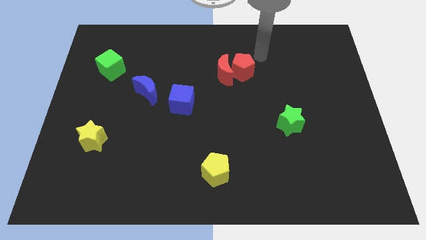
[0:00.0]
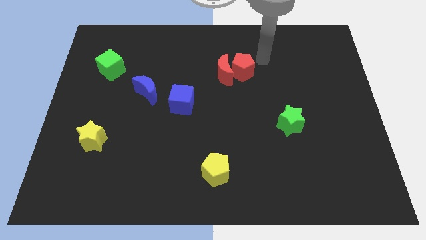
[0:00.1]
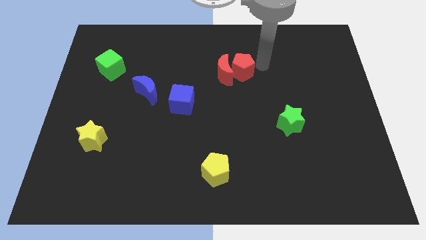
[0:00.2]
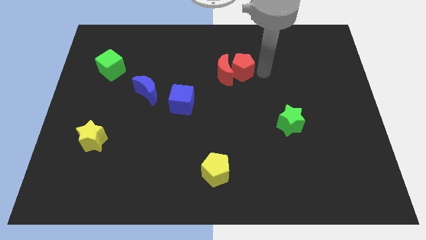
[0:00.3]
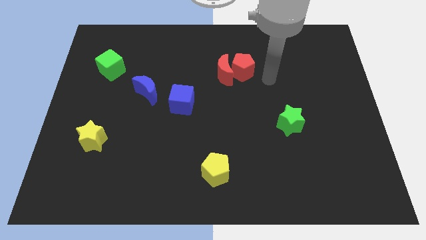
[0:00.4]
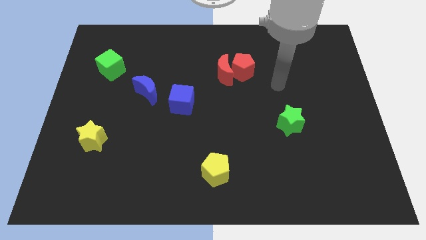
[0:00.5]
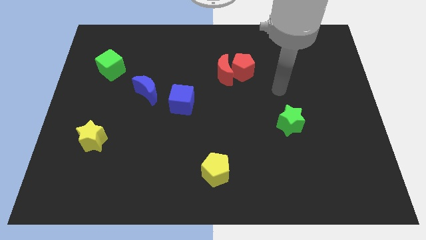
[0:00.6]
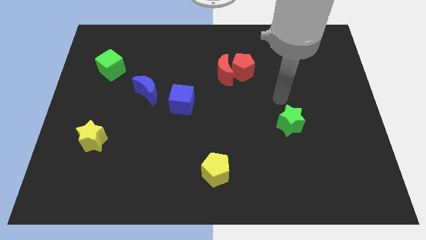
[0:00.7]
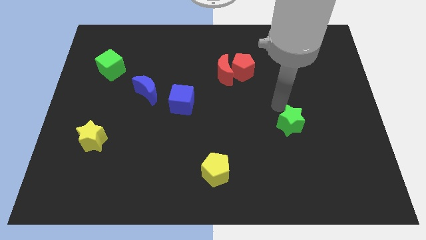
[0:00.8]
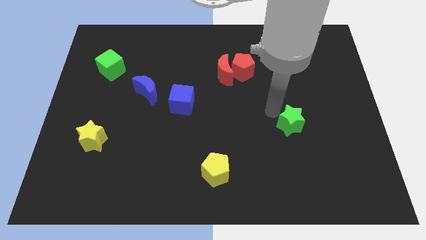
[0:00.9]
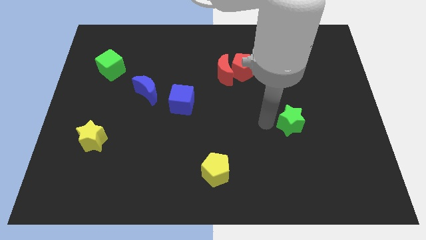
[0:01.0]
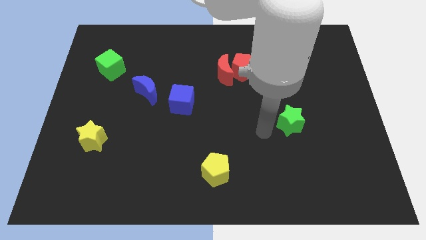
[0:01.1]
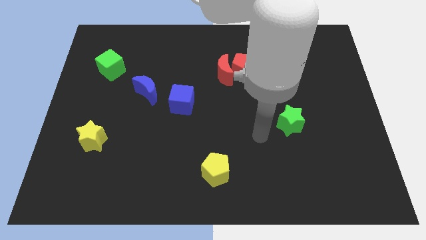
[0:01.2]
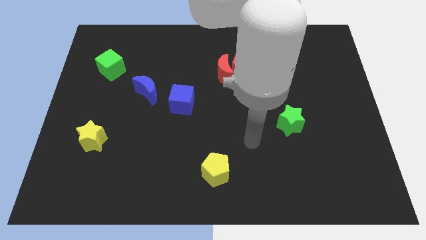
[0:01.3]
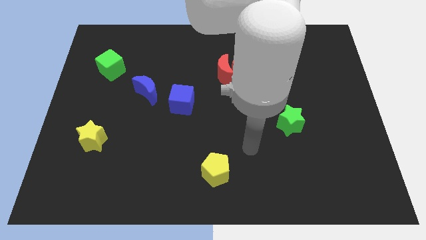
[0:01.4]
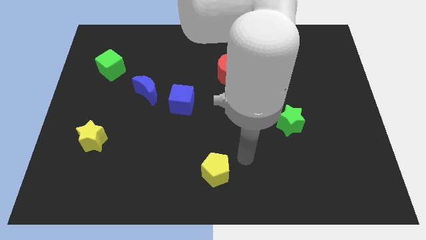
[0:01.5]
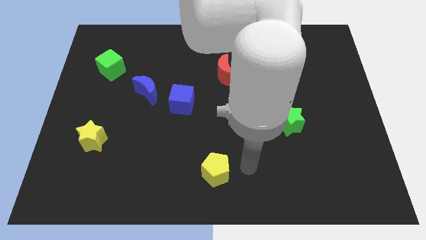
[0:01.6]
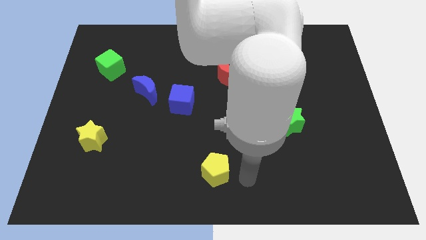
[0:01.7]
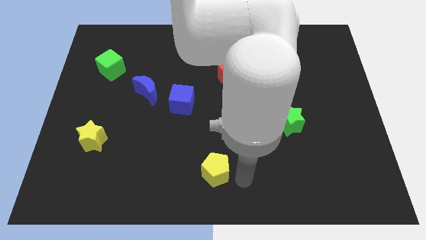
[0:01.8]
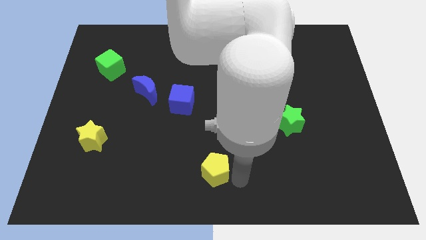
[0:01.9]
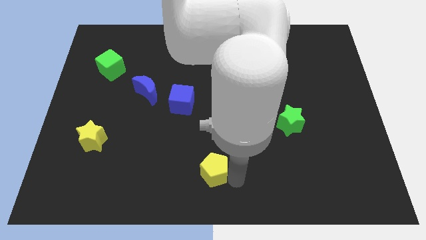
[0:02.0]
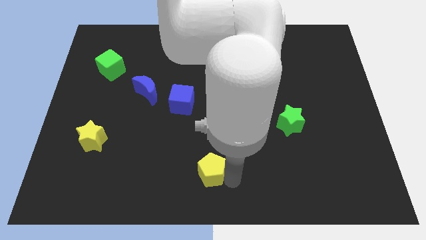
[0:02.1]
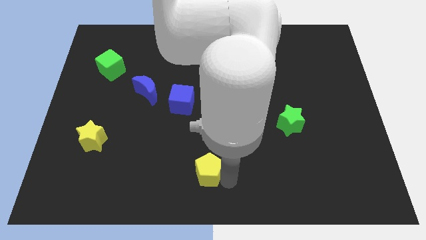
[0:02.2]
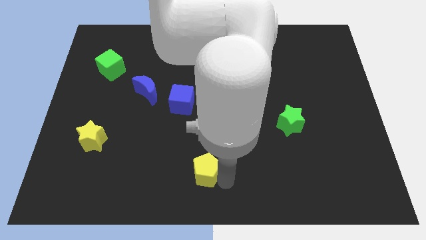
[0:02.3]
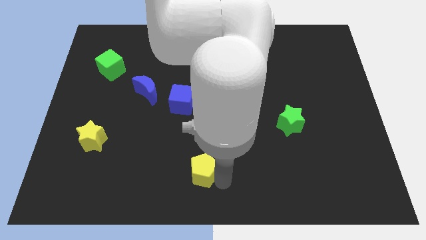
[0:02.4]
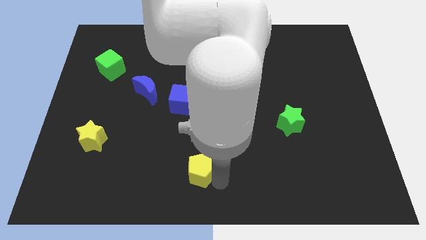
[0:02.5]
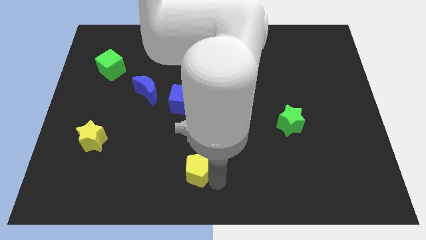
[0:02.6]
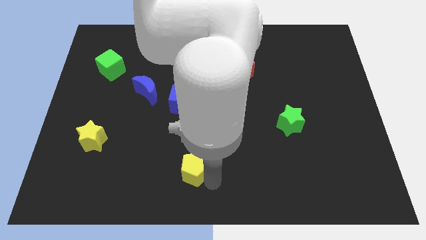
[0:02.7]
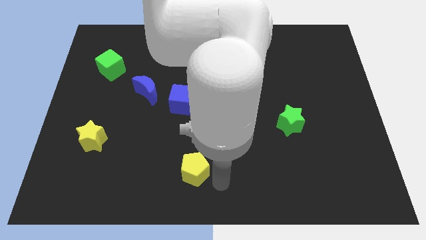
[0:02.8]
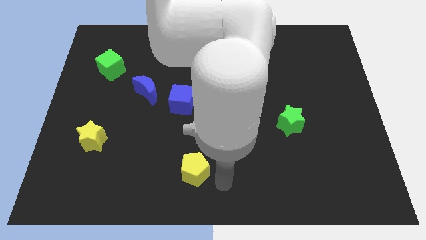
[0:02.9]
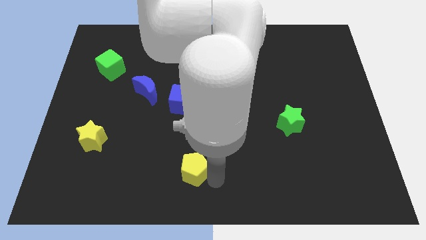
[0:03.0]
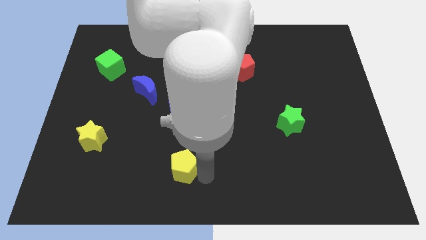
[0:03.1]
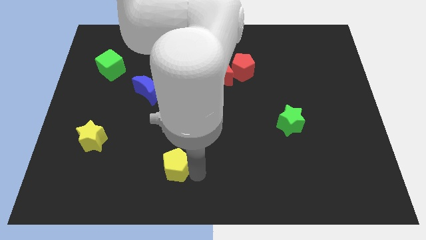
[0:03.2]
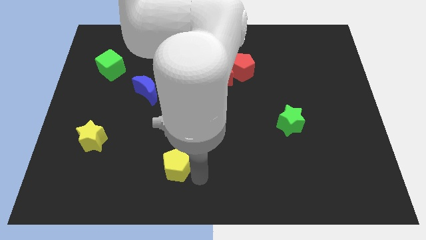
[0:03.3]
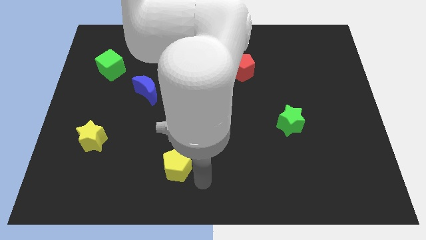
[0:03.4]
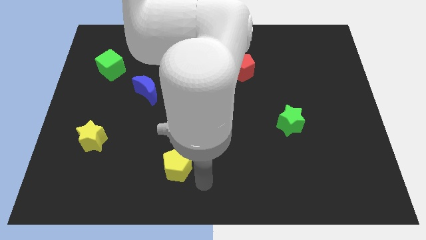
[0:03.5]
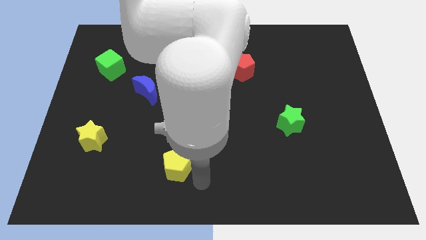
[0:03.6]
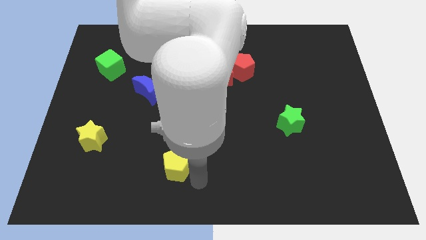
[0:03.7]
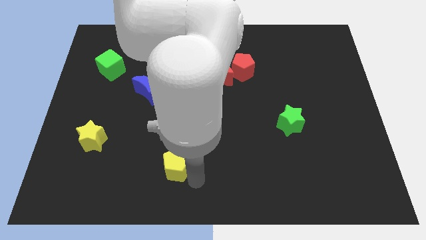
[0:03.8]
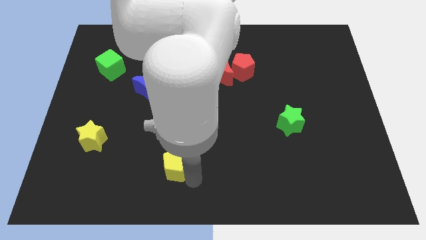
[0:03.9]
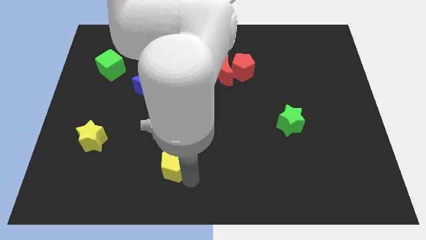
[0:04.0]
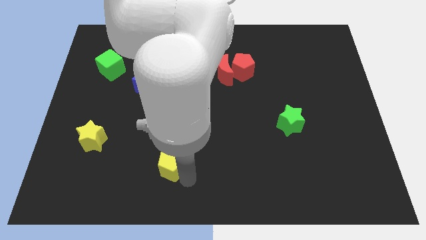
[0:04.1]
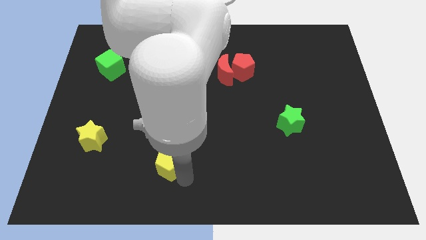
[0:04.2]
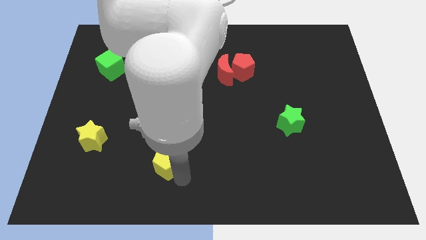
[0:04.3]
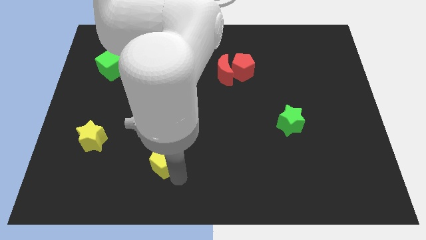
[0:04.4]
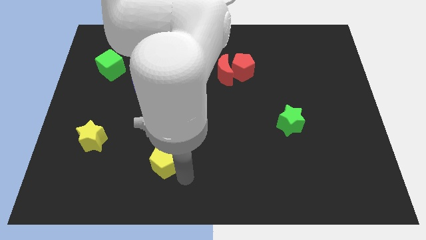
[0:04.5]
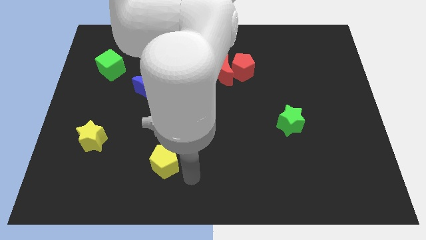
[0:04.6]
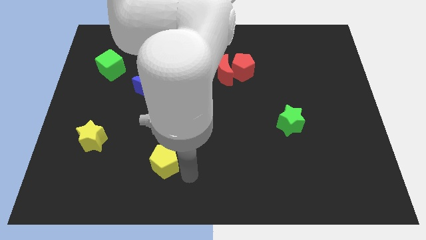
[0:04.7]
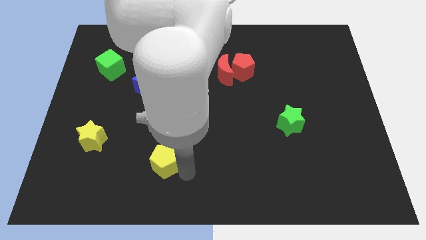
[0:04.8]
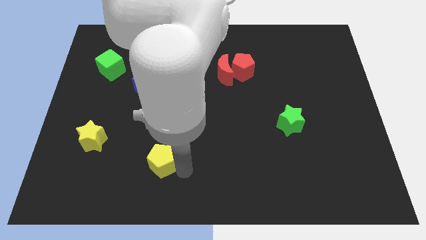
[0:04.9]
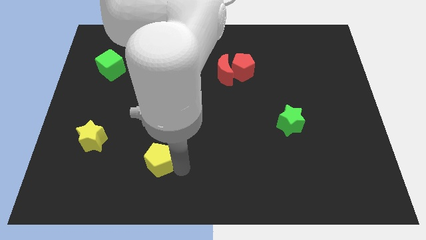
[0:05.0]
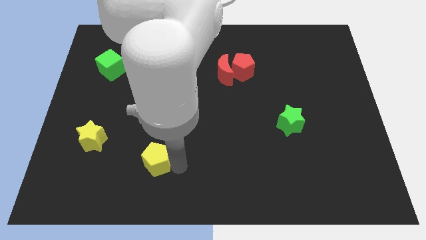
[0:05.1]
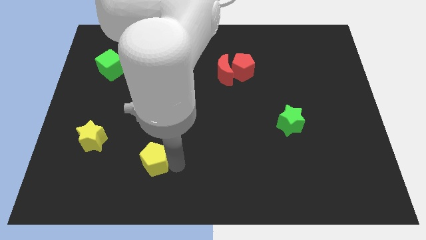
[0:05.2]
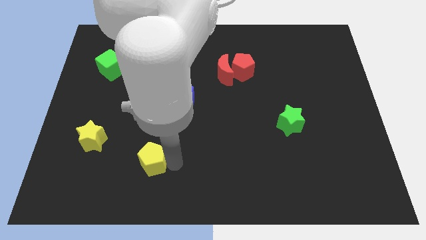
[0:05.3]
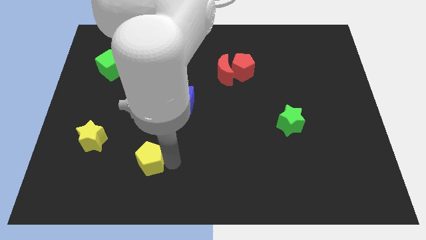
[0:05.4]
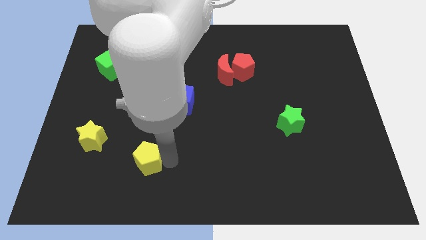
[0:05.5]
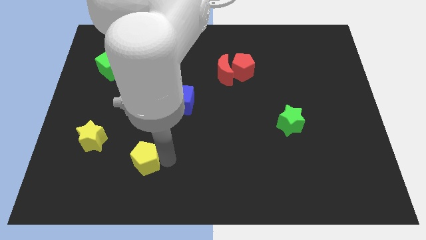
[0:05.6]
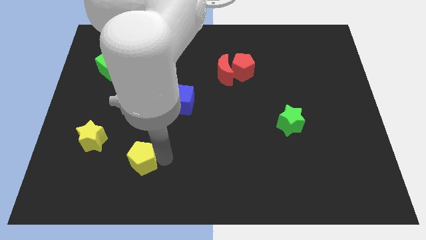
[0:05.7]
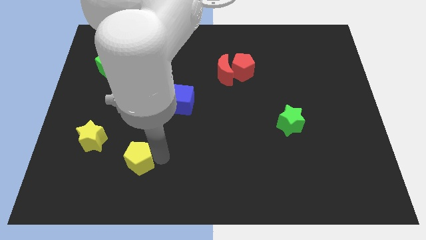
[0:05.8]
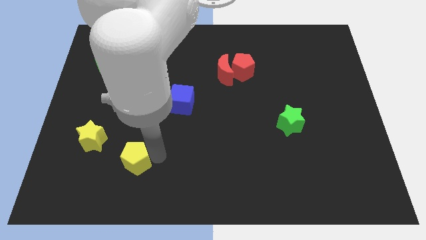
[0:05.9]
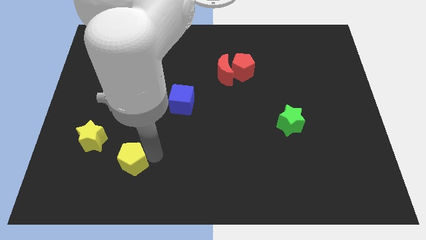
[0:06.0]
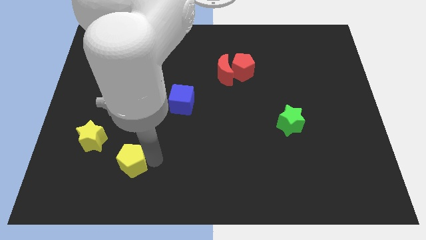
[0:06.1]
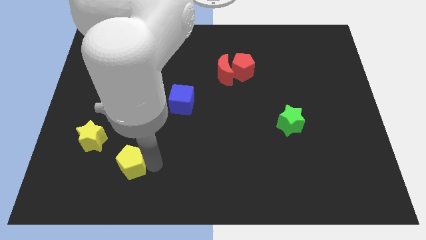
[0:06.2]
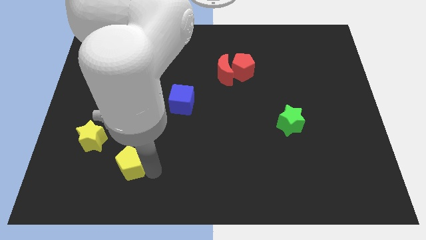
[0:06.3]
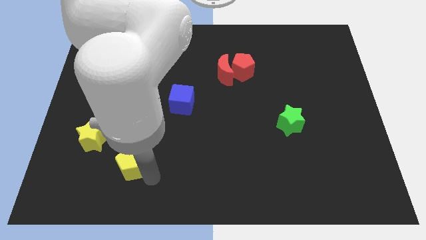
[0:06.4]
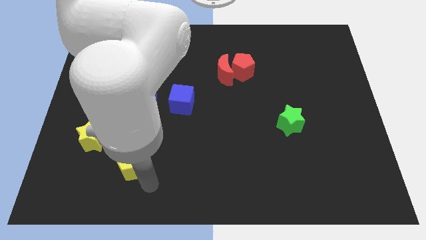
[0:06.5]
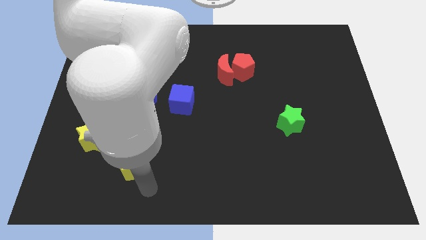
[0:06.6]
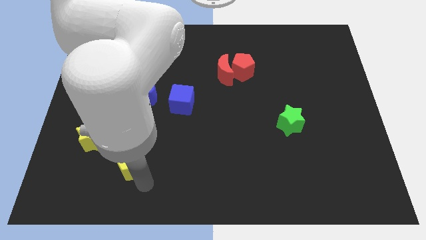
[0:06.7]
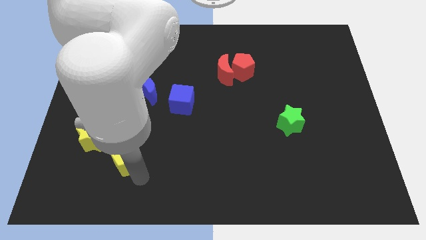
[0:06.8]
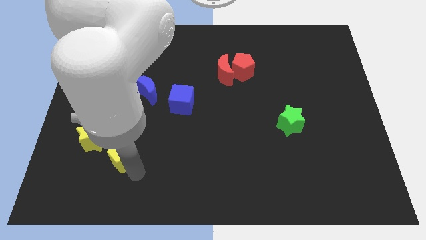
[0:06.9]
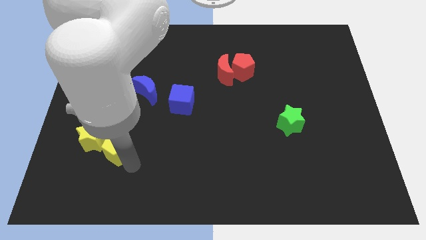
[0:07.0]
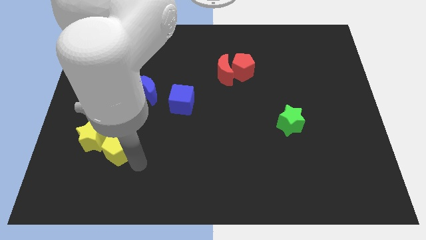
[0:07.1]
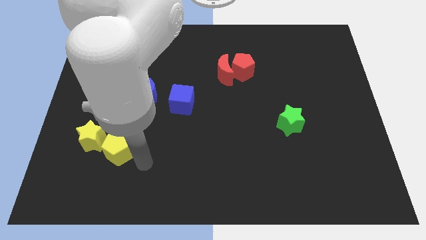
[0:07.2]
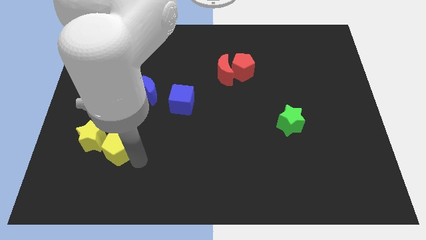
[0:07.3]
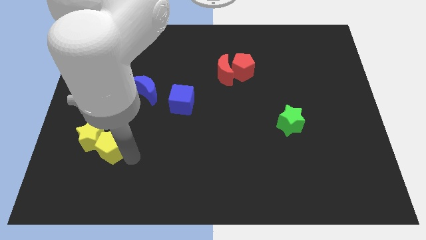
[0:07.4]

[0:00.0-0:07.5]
put the yellow pentagon next to the yellow star
